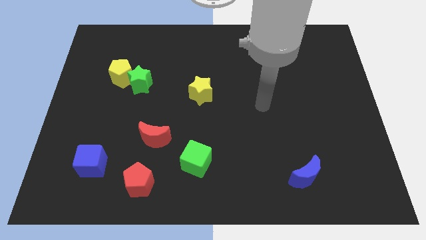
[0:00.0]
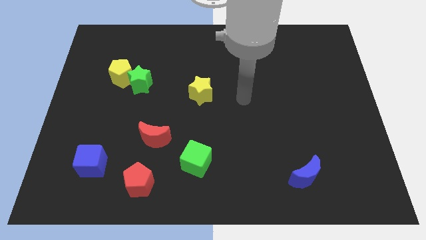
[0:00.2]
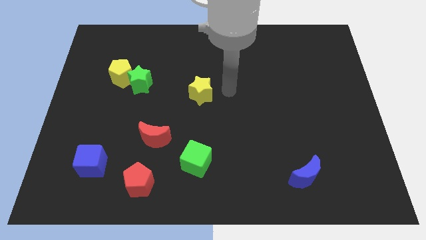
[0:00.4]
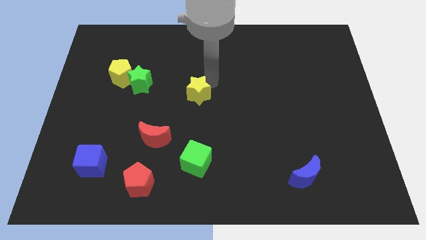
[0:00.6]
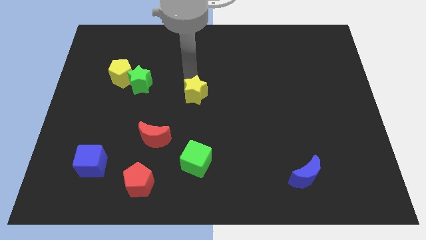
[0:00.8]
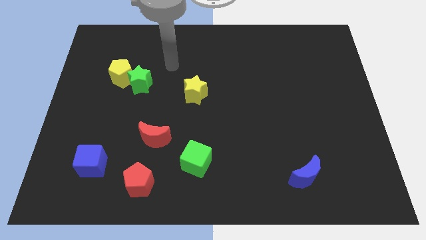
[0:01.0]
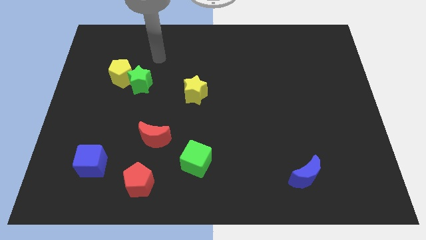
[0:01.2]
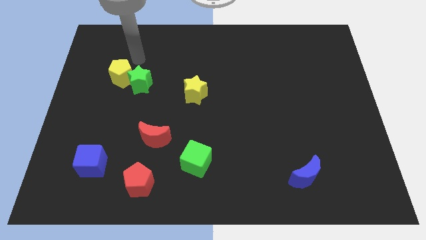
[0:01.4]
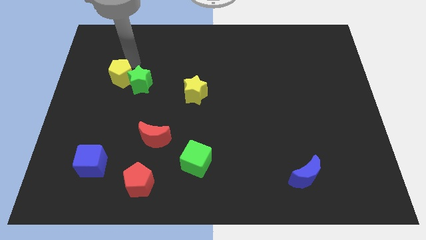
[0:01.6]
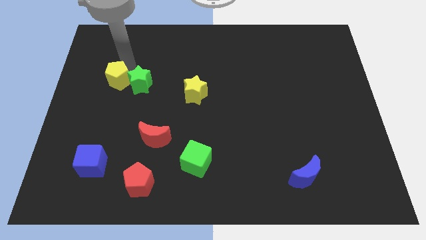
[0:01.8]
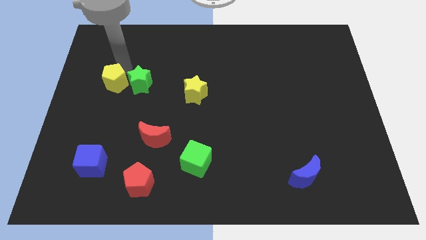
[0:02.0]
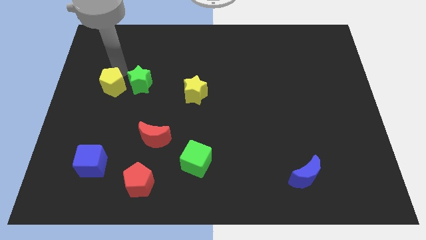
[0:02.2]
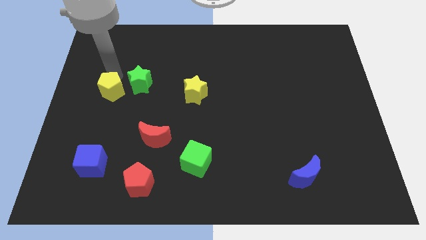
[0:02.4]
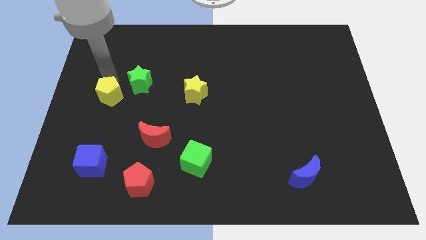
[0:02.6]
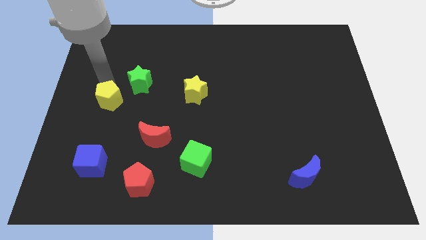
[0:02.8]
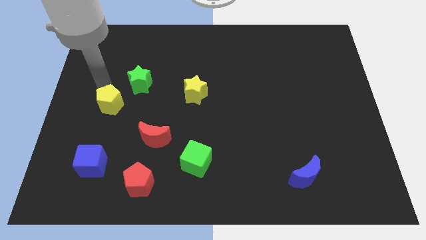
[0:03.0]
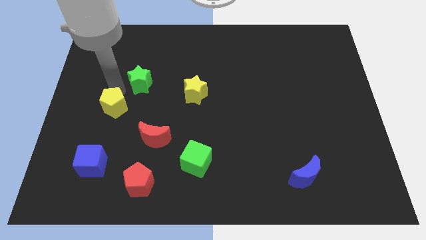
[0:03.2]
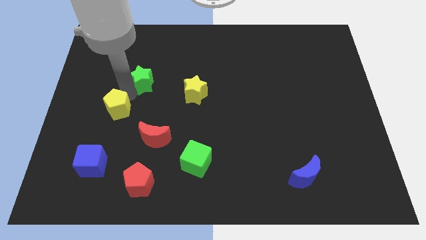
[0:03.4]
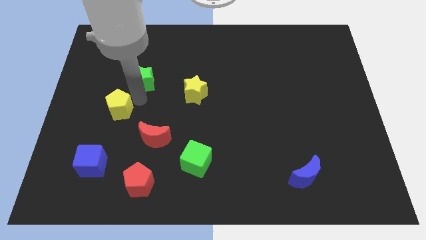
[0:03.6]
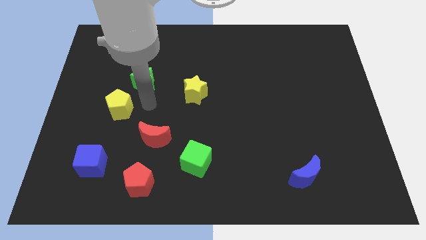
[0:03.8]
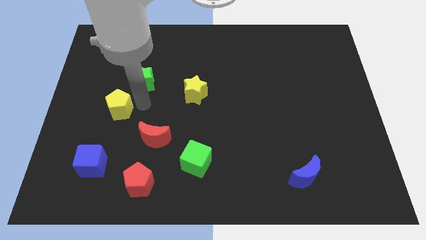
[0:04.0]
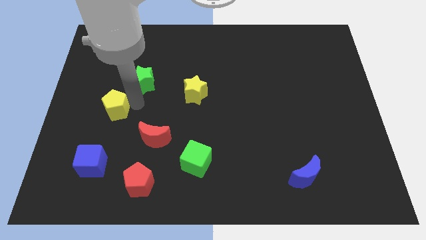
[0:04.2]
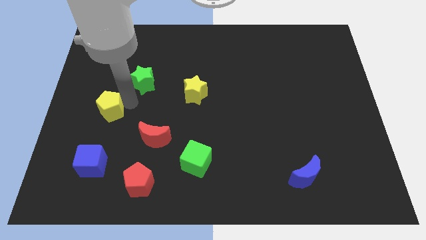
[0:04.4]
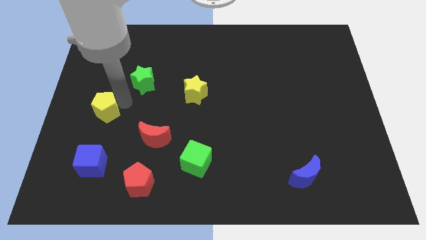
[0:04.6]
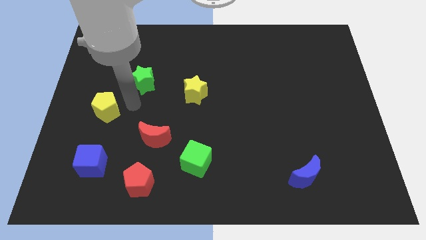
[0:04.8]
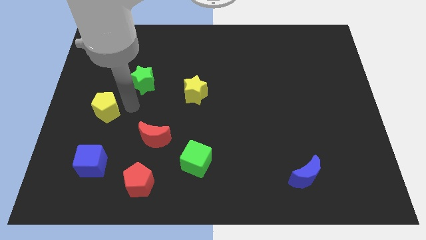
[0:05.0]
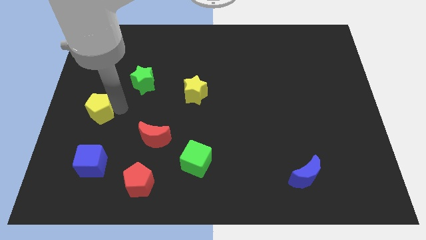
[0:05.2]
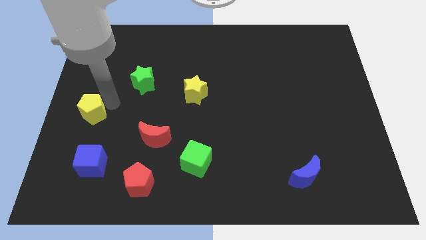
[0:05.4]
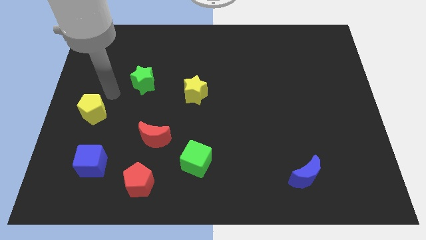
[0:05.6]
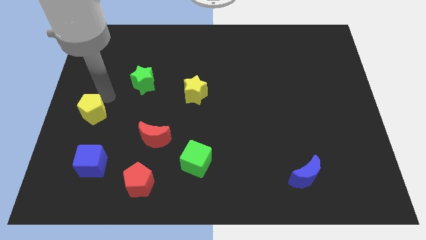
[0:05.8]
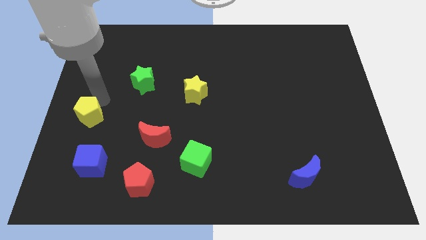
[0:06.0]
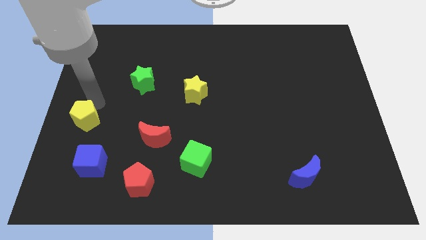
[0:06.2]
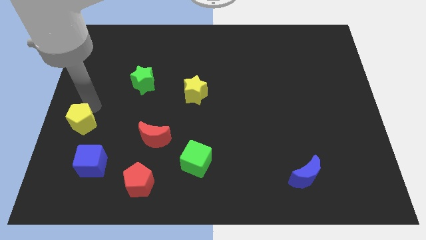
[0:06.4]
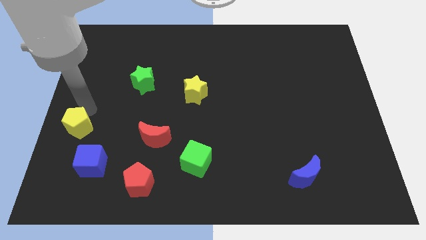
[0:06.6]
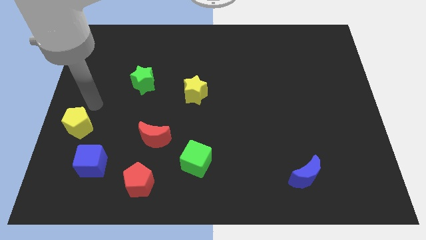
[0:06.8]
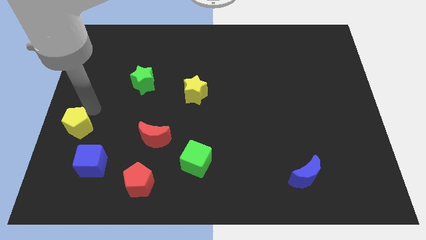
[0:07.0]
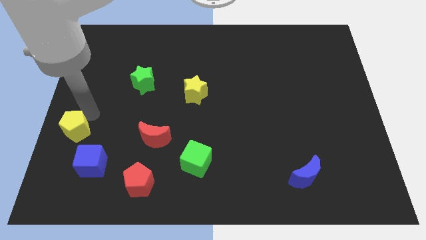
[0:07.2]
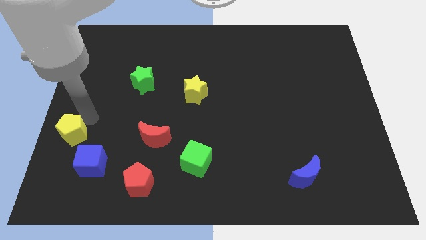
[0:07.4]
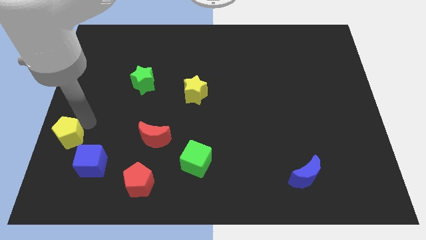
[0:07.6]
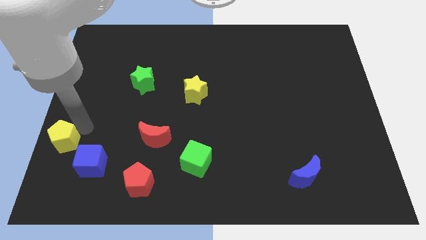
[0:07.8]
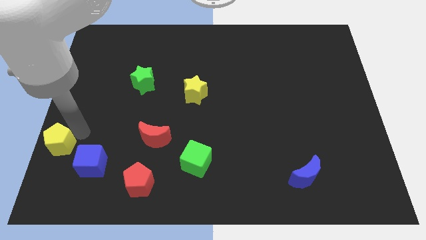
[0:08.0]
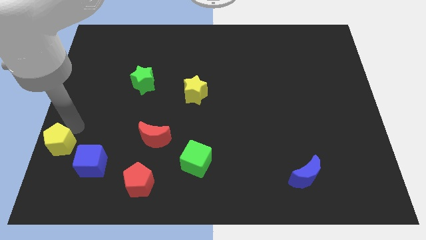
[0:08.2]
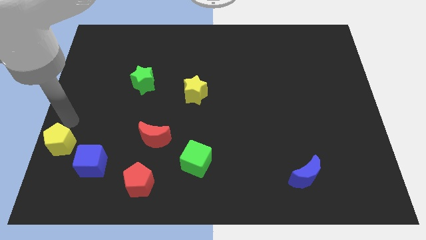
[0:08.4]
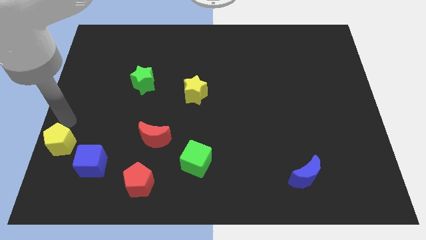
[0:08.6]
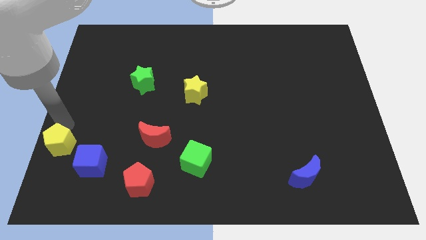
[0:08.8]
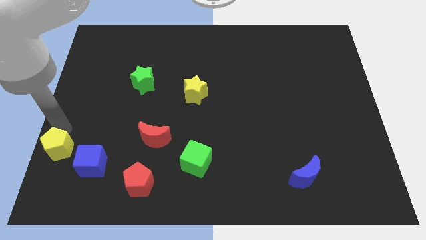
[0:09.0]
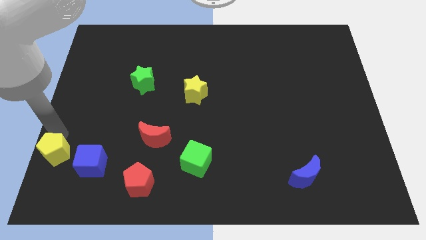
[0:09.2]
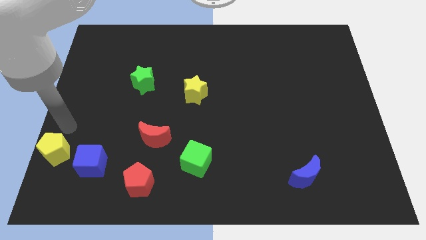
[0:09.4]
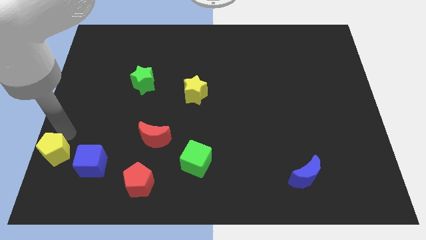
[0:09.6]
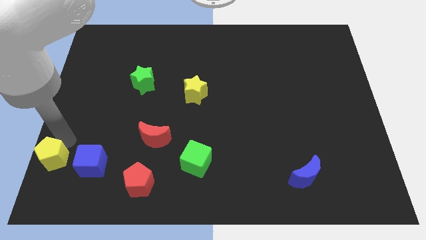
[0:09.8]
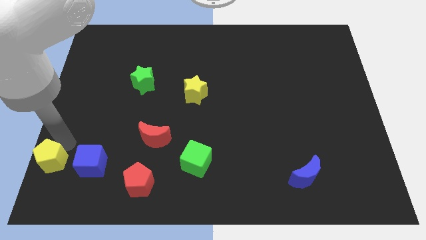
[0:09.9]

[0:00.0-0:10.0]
push the yellow pentagon to the bottom left of the board

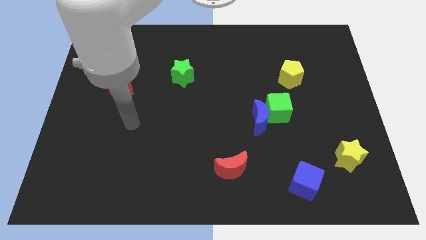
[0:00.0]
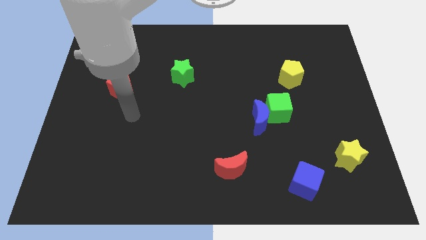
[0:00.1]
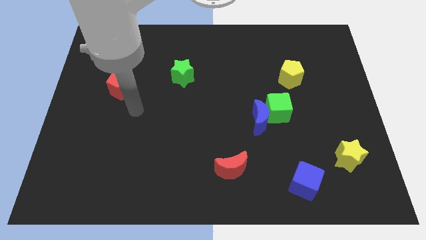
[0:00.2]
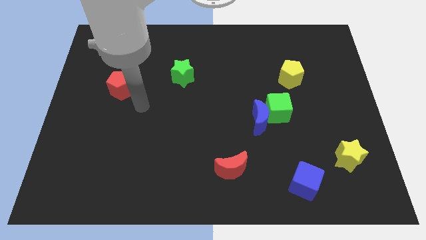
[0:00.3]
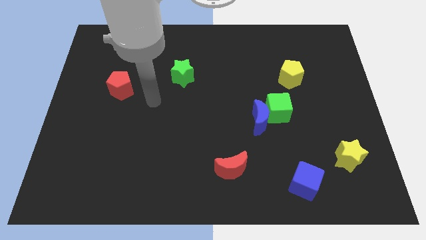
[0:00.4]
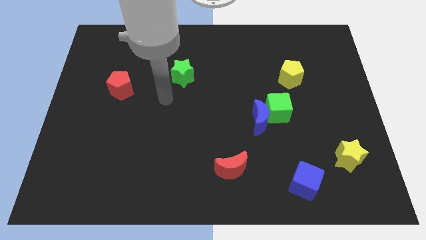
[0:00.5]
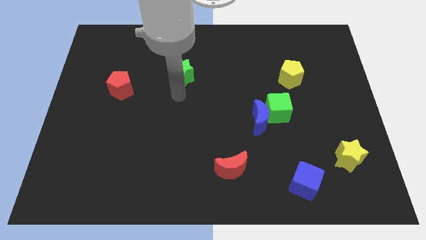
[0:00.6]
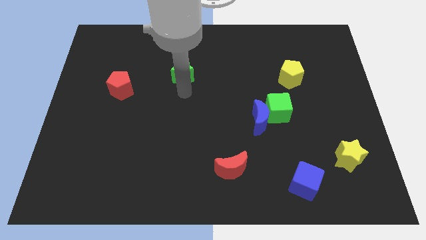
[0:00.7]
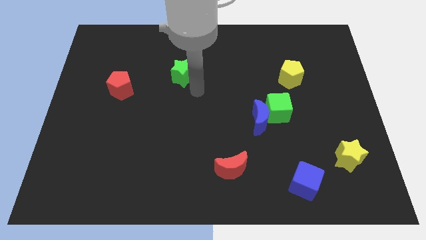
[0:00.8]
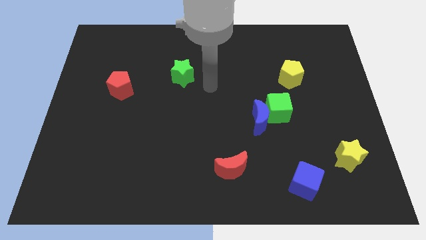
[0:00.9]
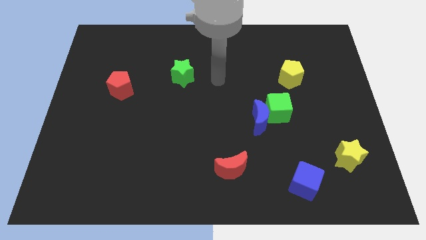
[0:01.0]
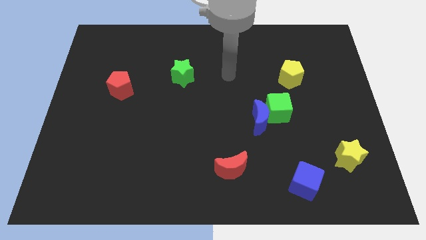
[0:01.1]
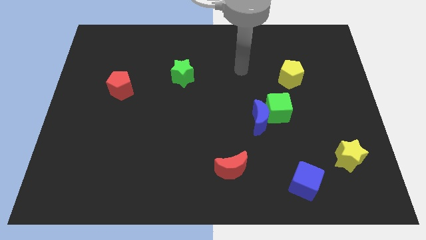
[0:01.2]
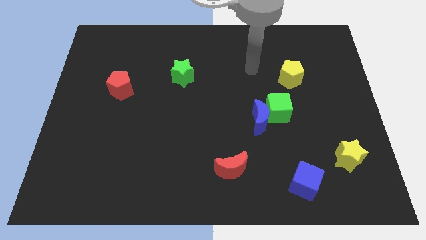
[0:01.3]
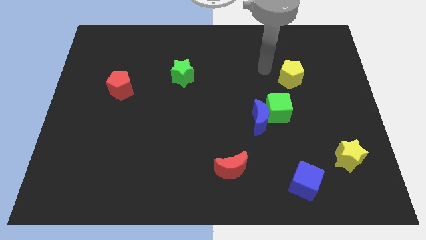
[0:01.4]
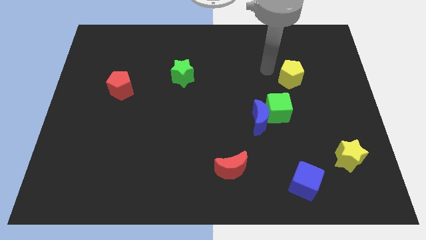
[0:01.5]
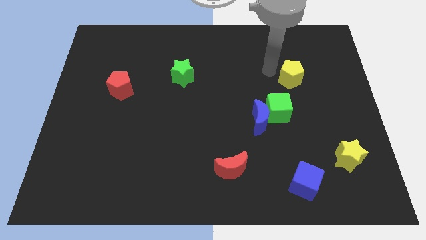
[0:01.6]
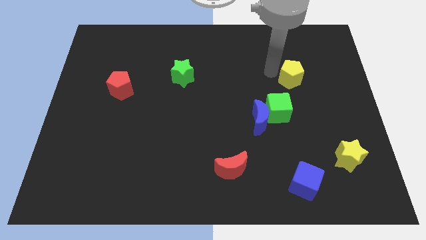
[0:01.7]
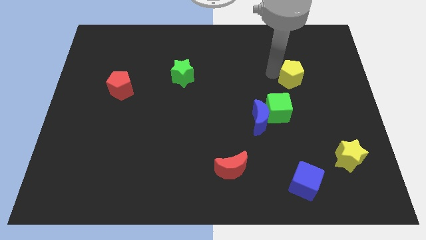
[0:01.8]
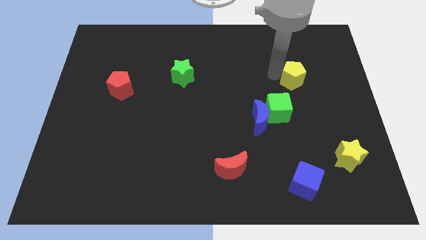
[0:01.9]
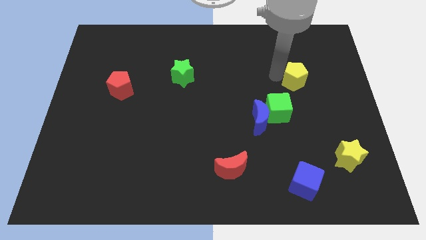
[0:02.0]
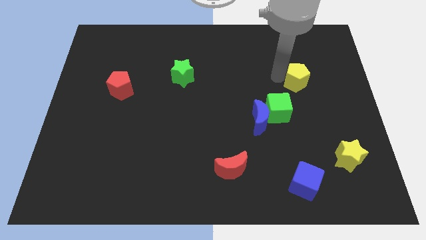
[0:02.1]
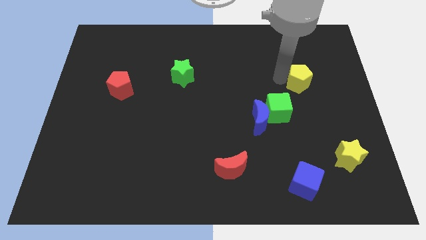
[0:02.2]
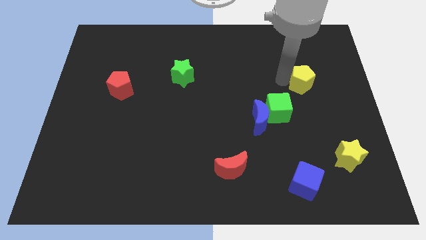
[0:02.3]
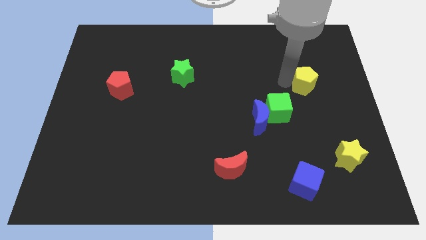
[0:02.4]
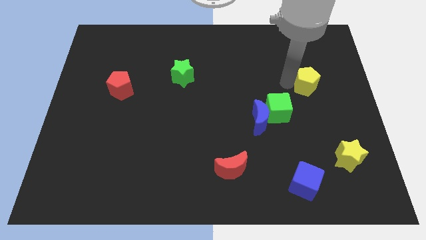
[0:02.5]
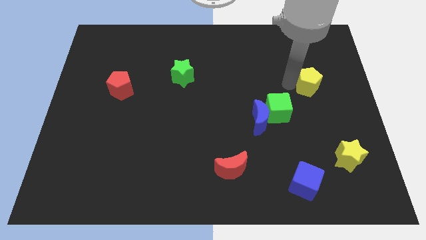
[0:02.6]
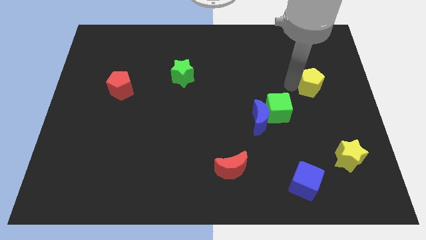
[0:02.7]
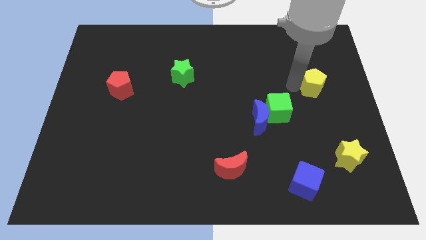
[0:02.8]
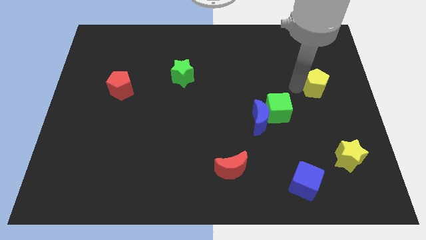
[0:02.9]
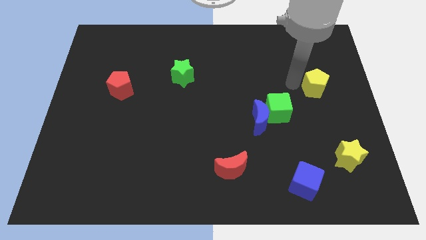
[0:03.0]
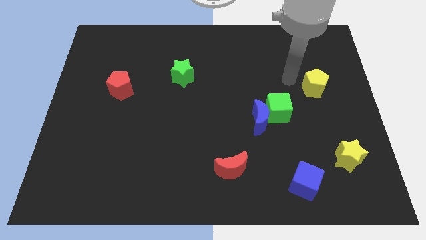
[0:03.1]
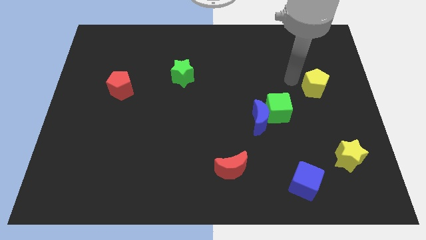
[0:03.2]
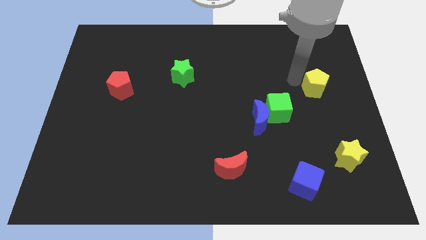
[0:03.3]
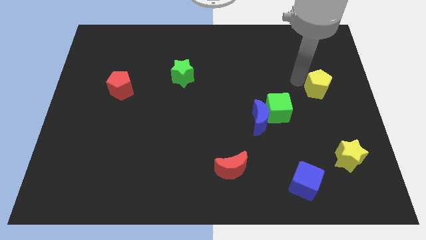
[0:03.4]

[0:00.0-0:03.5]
push the yellow pentagon to the right side
